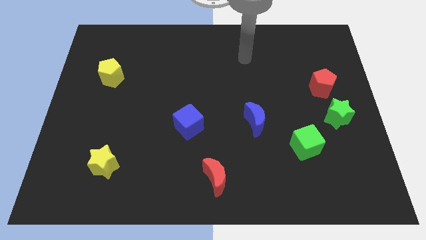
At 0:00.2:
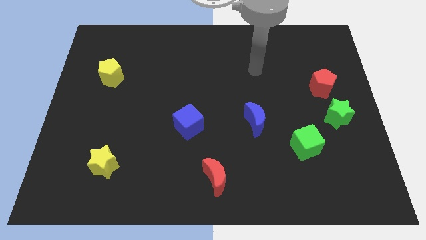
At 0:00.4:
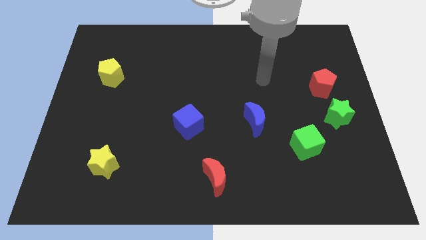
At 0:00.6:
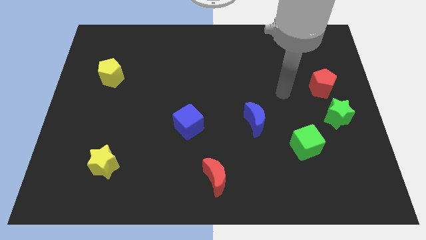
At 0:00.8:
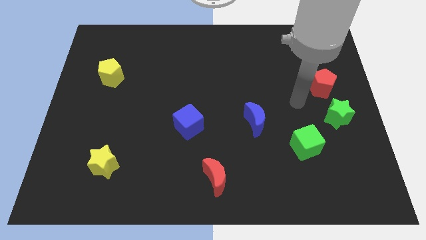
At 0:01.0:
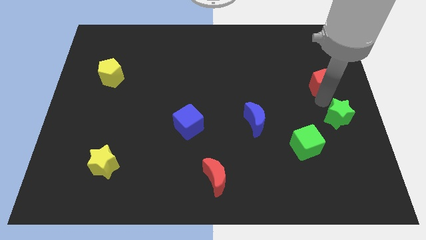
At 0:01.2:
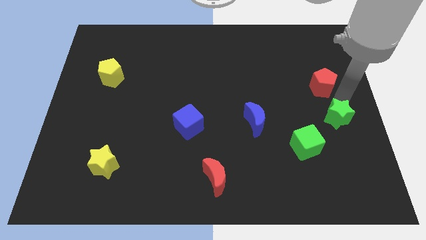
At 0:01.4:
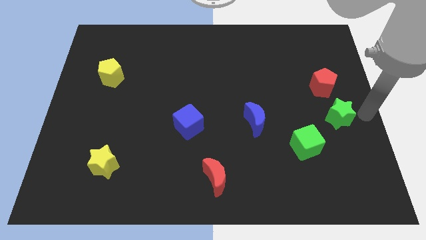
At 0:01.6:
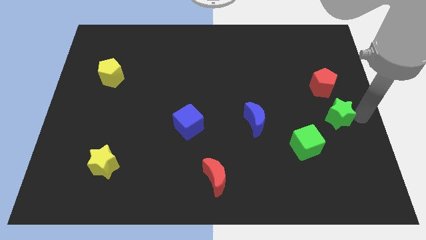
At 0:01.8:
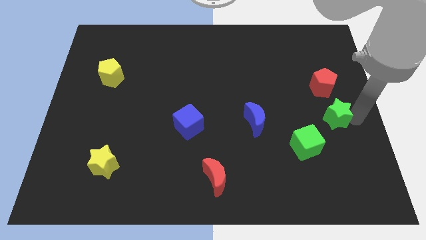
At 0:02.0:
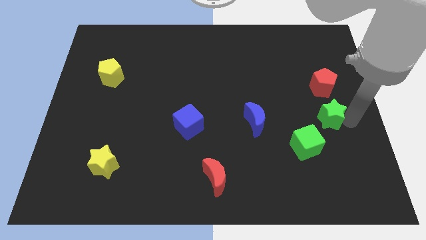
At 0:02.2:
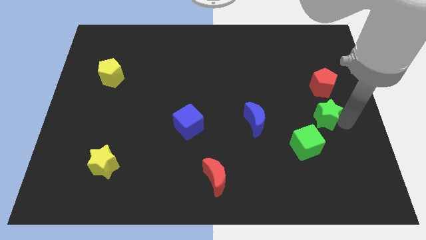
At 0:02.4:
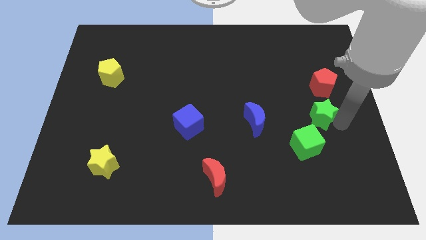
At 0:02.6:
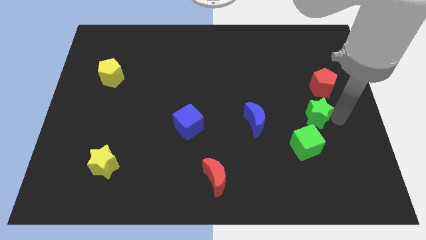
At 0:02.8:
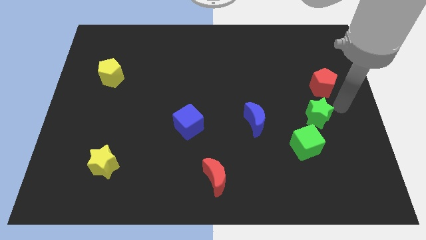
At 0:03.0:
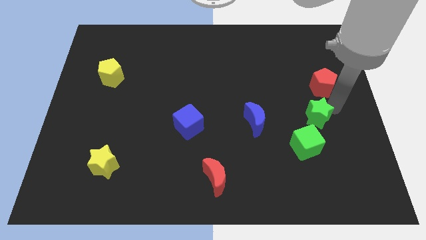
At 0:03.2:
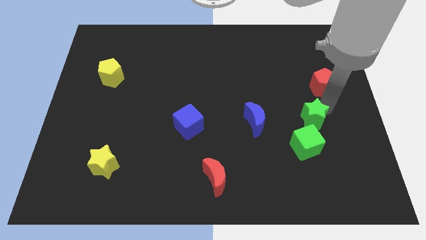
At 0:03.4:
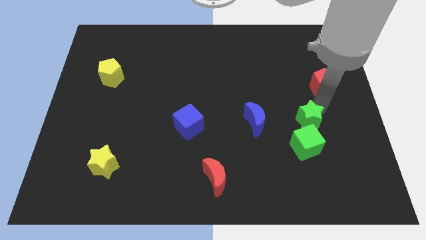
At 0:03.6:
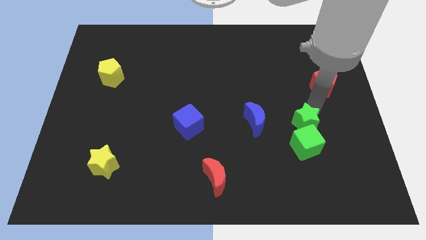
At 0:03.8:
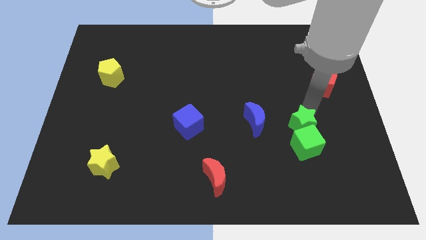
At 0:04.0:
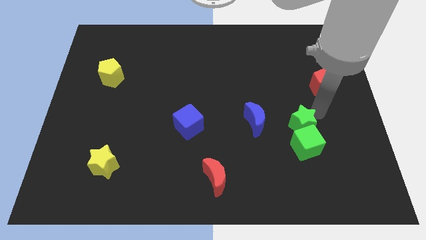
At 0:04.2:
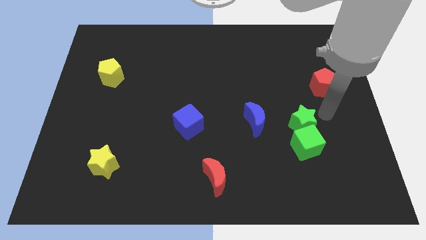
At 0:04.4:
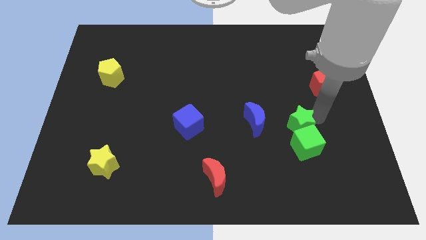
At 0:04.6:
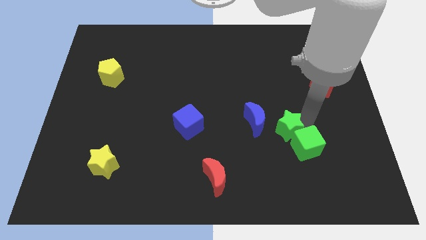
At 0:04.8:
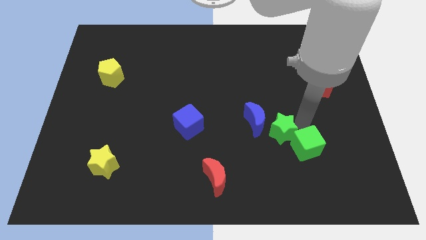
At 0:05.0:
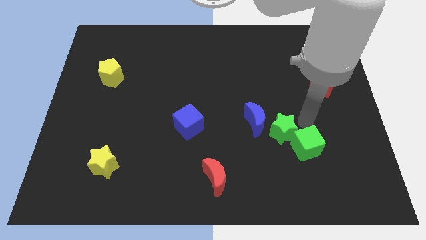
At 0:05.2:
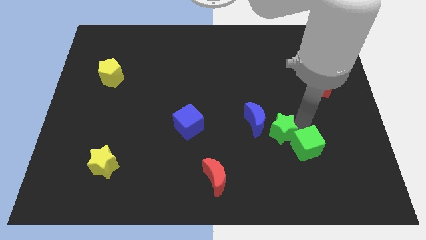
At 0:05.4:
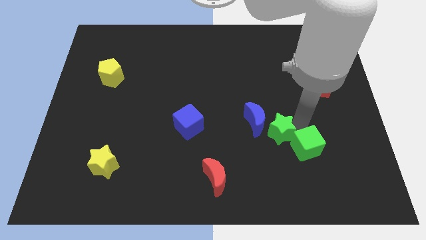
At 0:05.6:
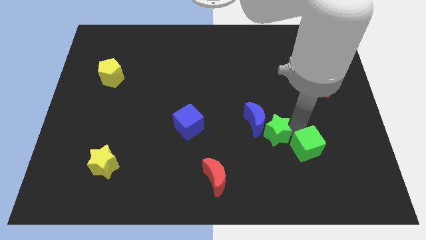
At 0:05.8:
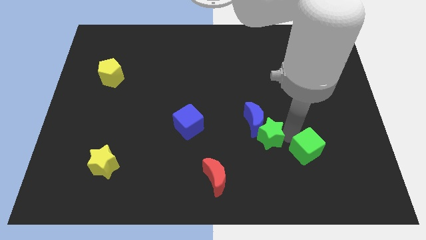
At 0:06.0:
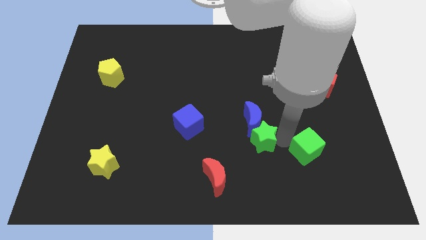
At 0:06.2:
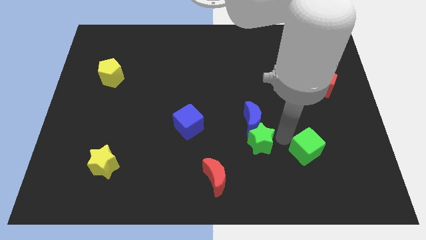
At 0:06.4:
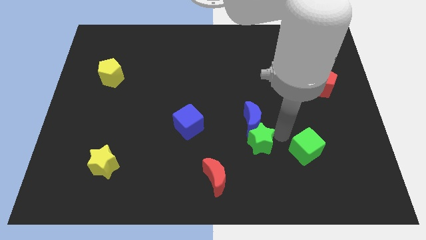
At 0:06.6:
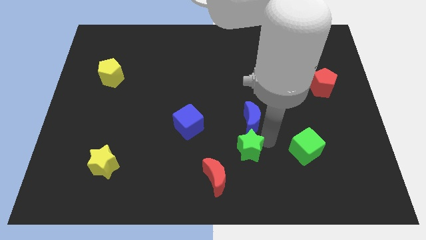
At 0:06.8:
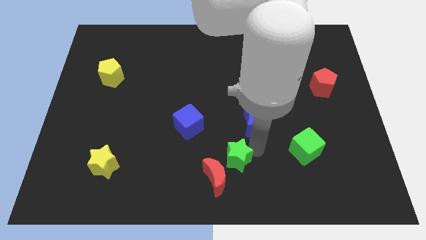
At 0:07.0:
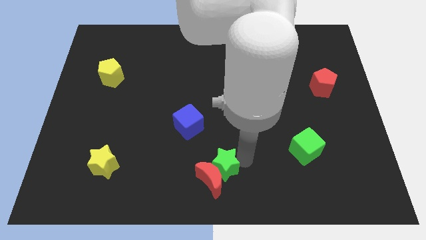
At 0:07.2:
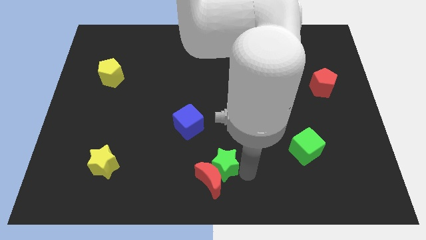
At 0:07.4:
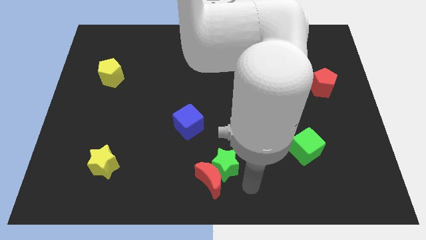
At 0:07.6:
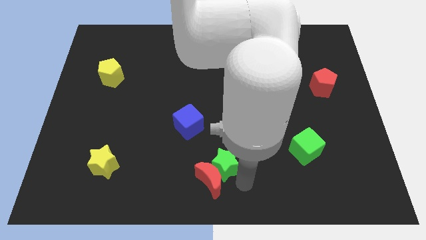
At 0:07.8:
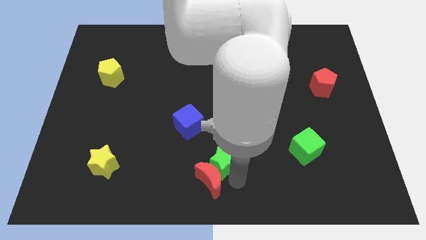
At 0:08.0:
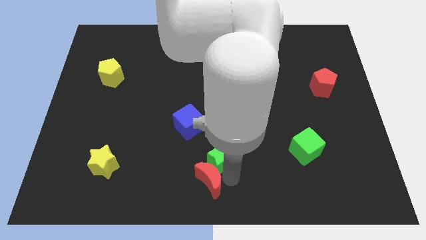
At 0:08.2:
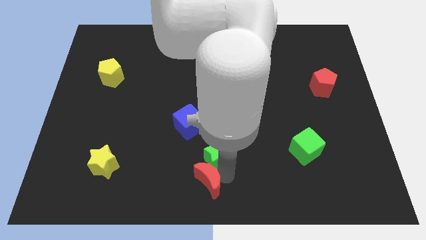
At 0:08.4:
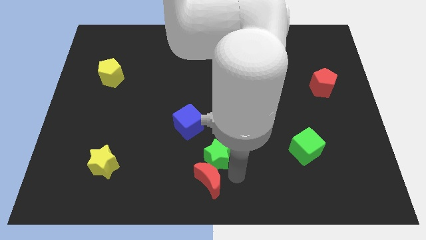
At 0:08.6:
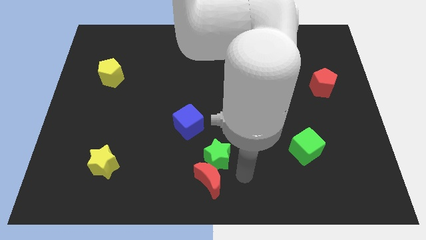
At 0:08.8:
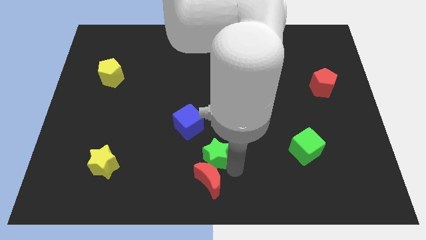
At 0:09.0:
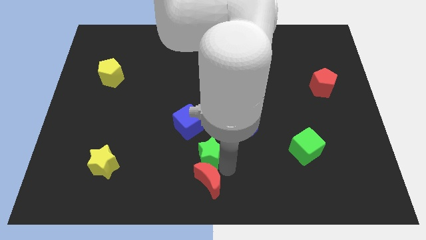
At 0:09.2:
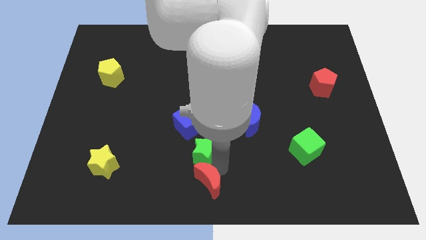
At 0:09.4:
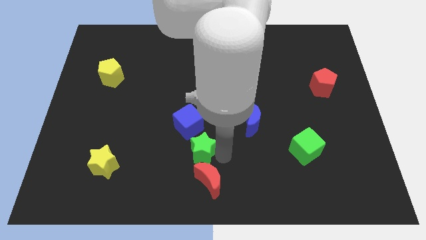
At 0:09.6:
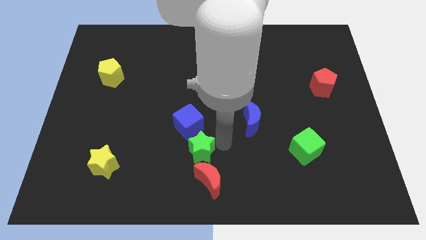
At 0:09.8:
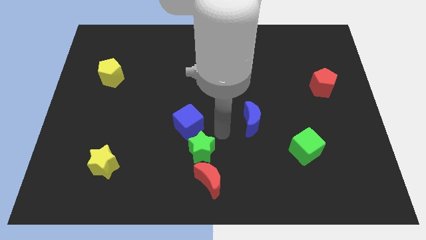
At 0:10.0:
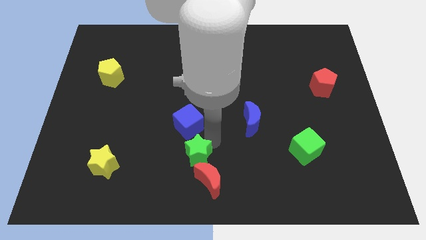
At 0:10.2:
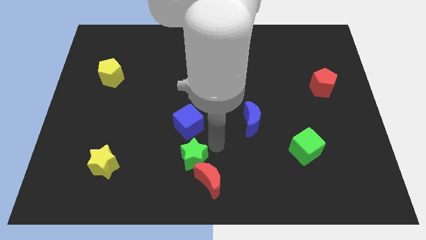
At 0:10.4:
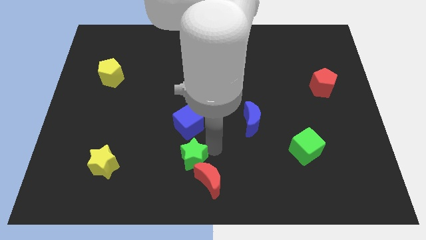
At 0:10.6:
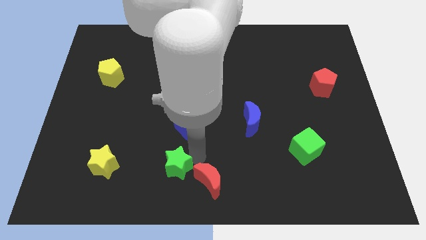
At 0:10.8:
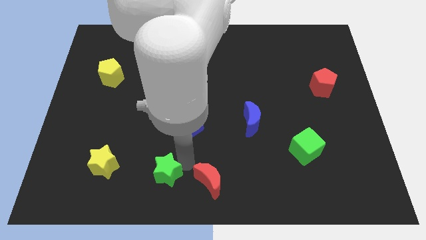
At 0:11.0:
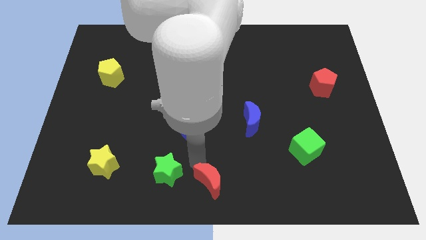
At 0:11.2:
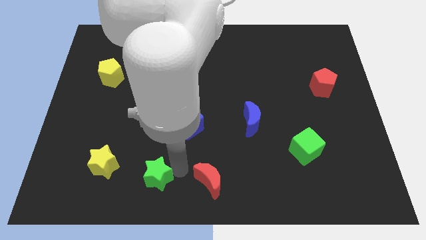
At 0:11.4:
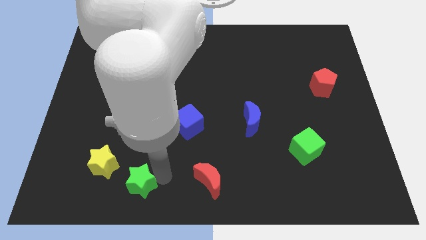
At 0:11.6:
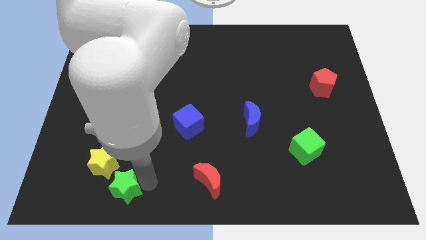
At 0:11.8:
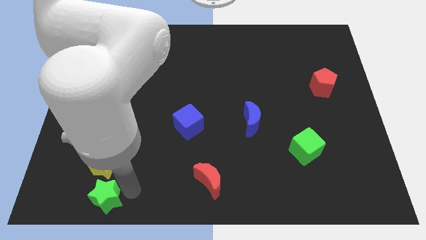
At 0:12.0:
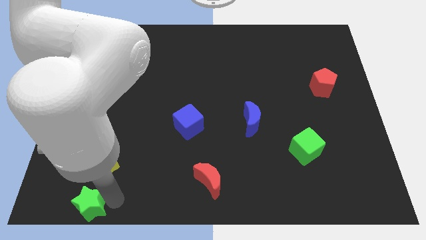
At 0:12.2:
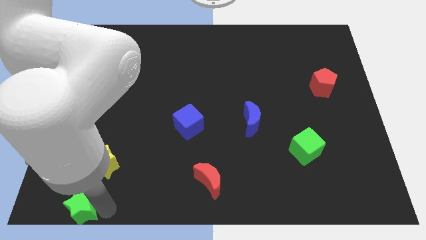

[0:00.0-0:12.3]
push the green star to the bottom left of the board

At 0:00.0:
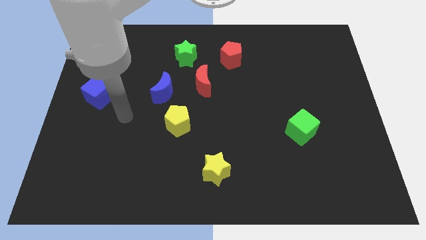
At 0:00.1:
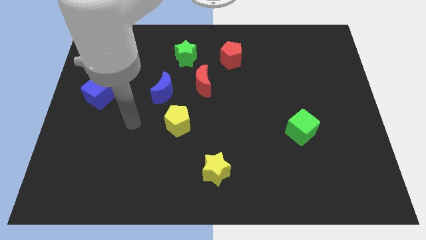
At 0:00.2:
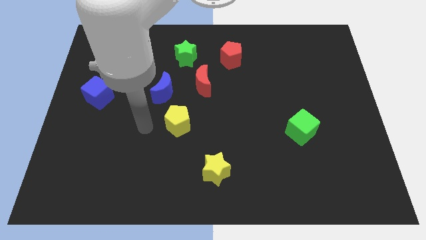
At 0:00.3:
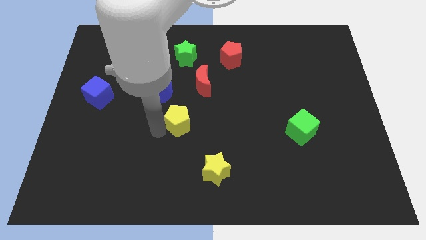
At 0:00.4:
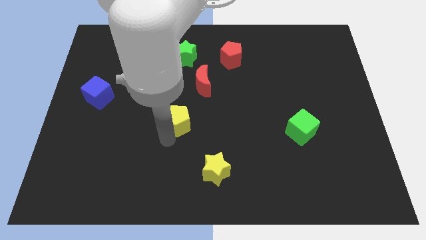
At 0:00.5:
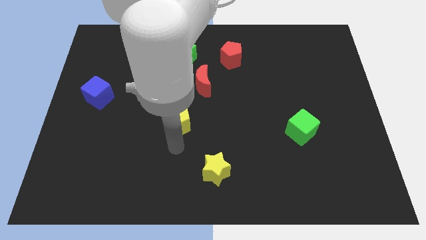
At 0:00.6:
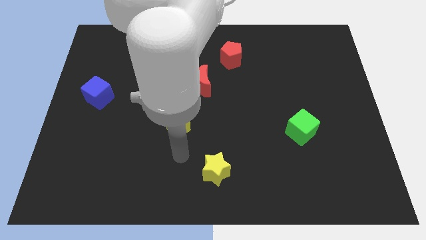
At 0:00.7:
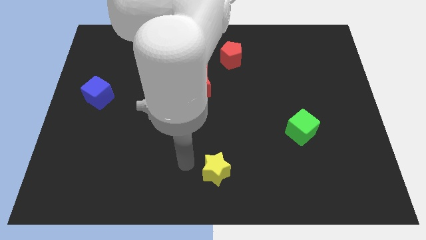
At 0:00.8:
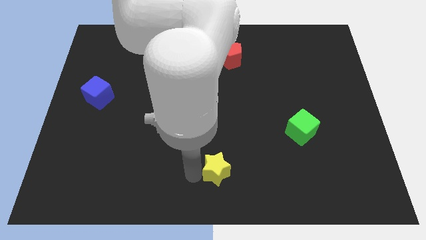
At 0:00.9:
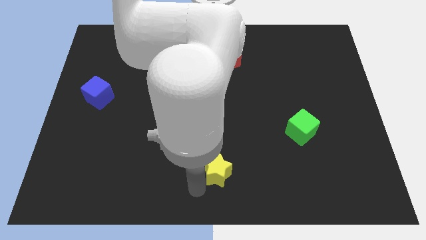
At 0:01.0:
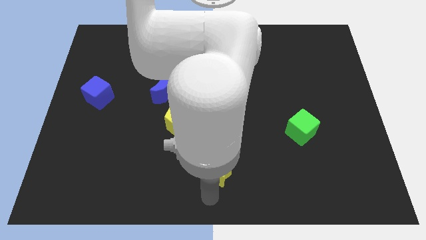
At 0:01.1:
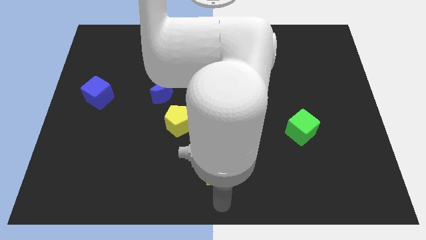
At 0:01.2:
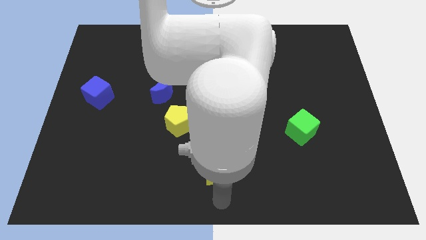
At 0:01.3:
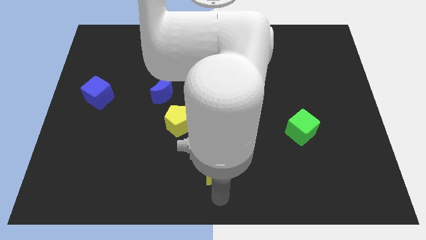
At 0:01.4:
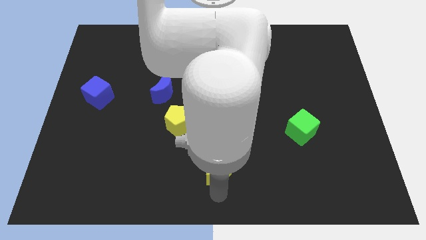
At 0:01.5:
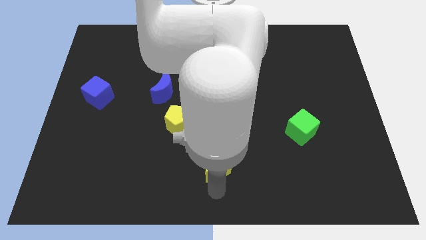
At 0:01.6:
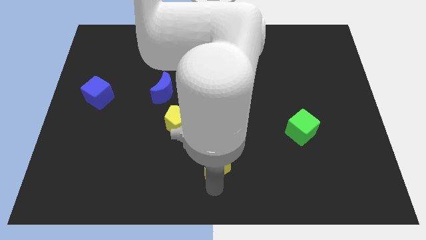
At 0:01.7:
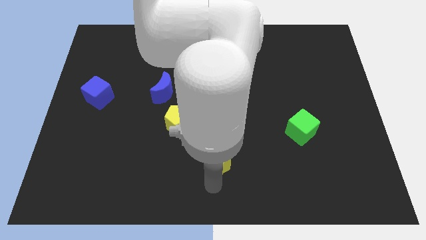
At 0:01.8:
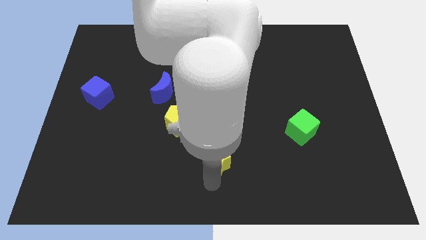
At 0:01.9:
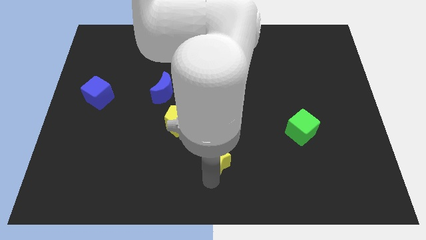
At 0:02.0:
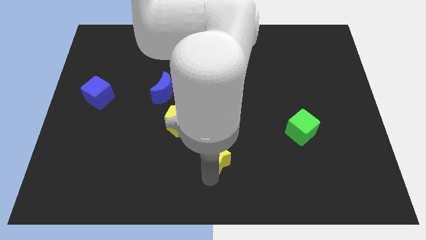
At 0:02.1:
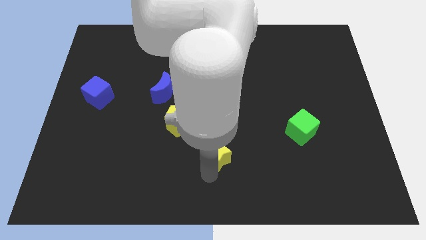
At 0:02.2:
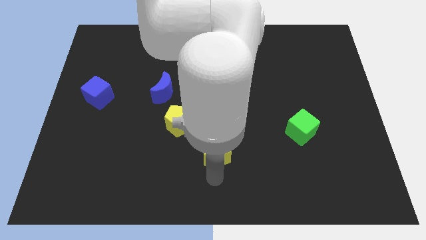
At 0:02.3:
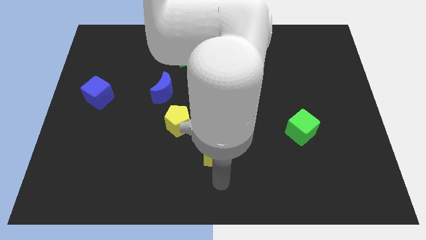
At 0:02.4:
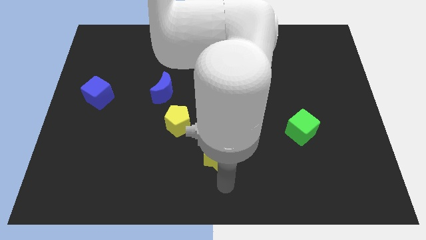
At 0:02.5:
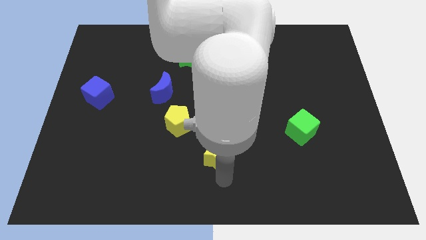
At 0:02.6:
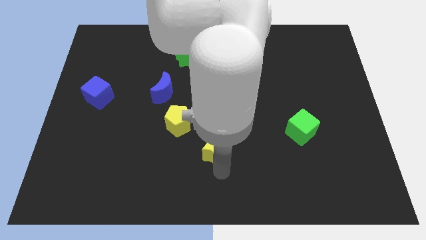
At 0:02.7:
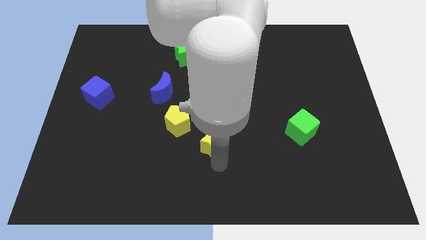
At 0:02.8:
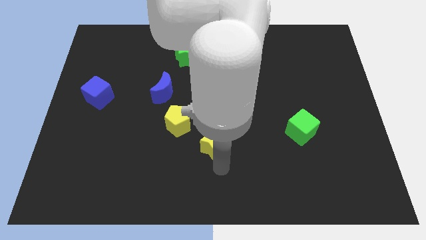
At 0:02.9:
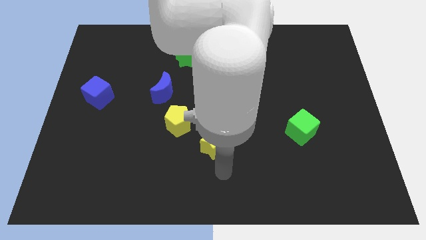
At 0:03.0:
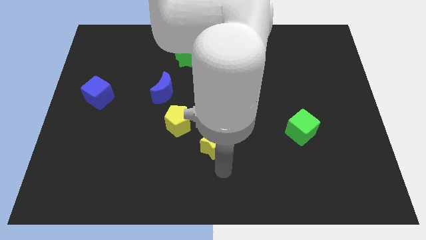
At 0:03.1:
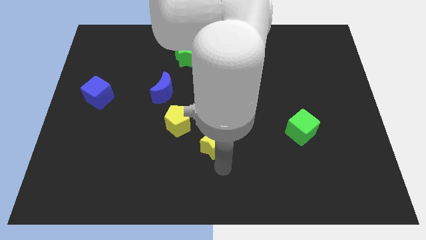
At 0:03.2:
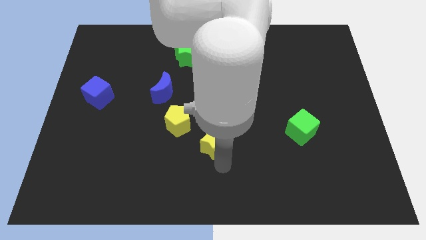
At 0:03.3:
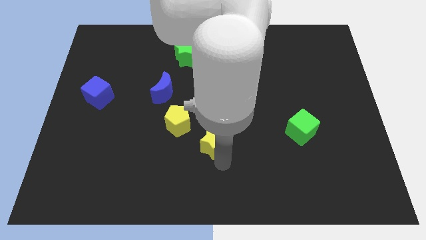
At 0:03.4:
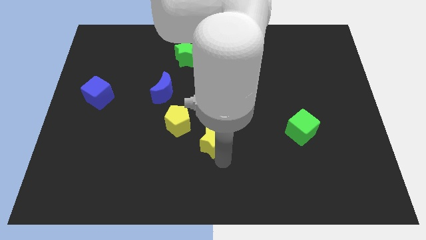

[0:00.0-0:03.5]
put the yellow star to the center
